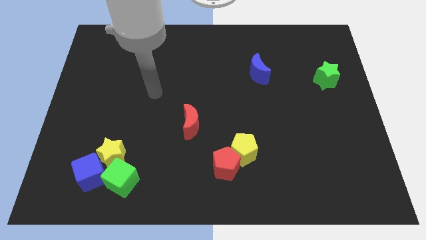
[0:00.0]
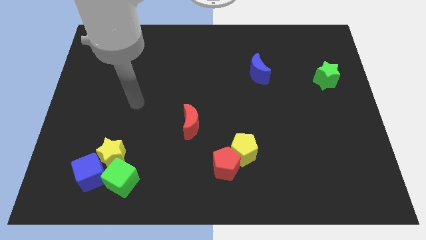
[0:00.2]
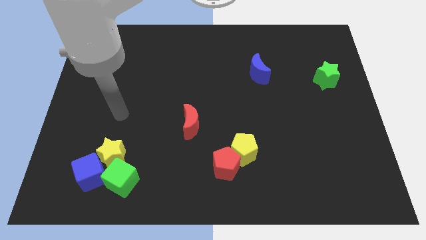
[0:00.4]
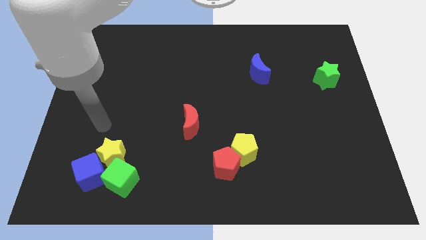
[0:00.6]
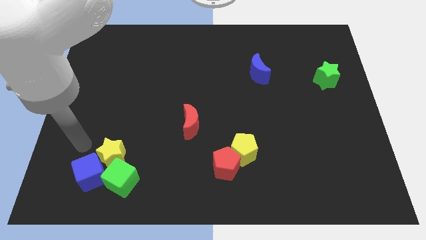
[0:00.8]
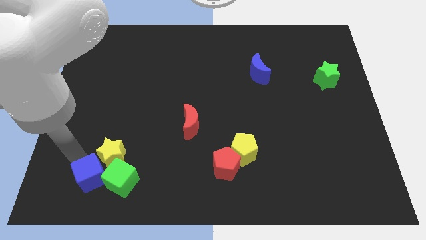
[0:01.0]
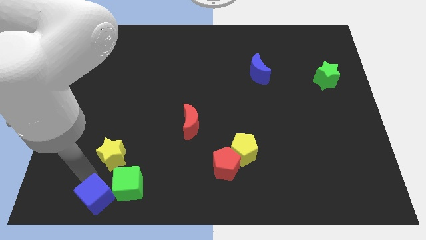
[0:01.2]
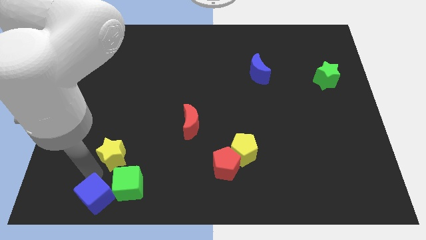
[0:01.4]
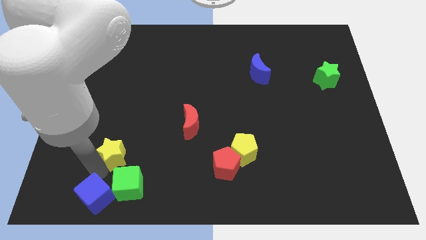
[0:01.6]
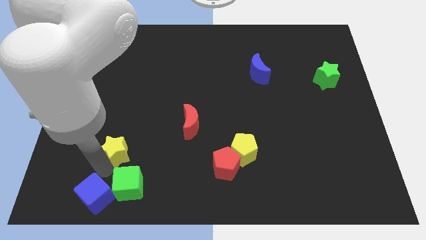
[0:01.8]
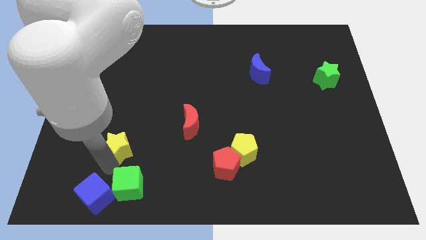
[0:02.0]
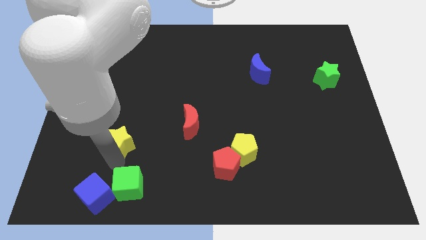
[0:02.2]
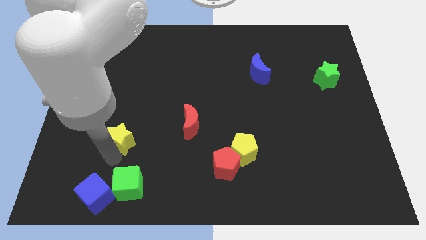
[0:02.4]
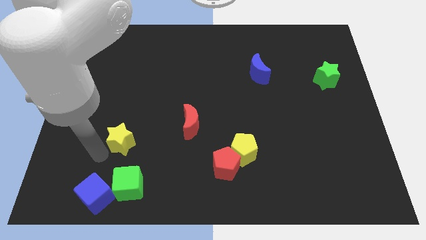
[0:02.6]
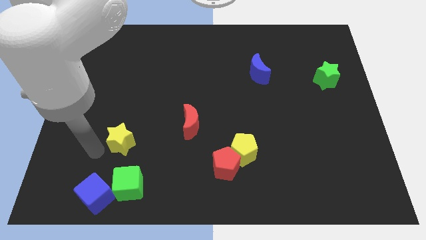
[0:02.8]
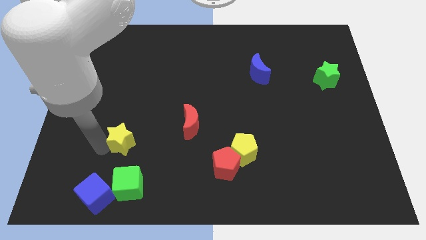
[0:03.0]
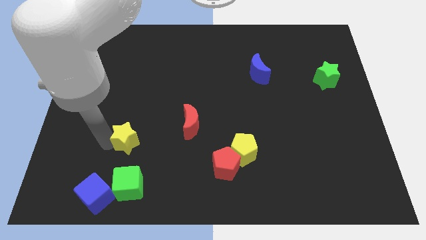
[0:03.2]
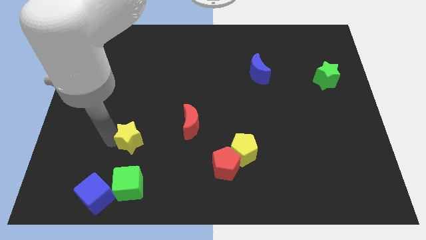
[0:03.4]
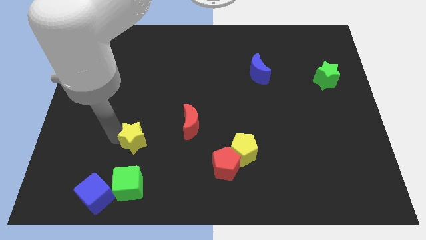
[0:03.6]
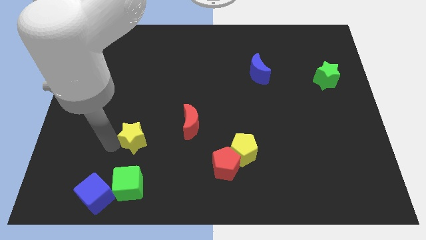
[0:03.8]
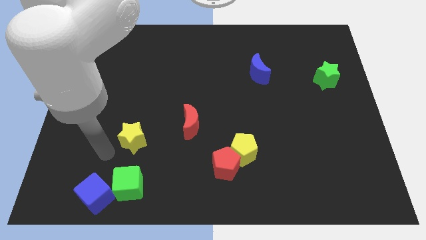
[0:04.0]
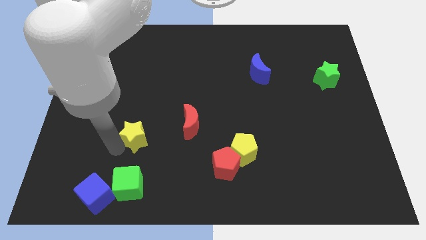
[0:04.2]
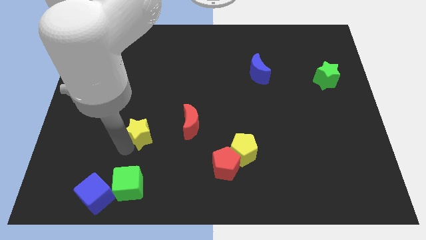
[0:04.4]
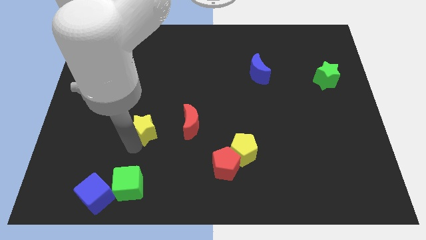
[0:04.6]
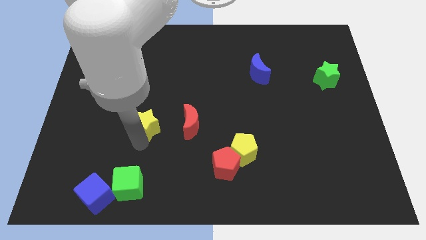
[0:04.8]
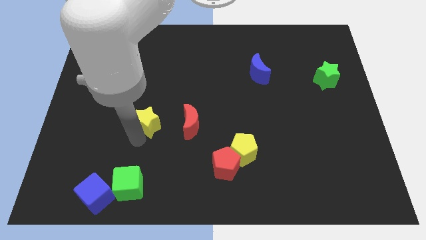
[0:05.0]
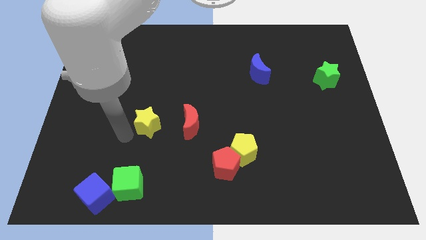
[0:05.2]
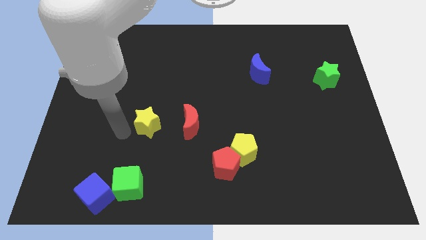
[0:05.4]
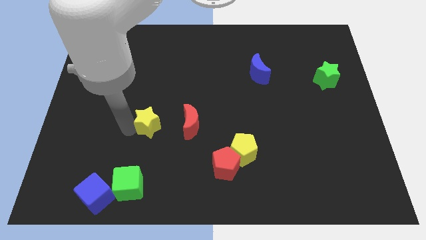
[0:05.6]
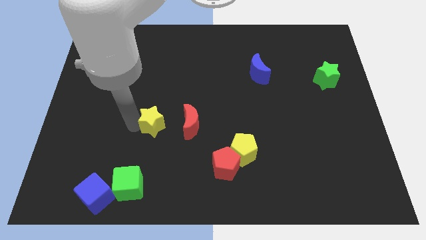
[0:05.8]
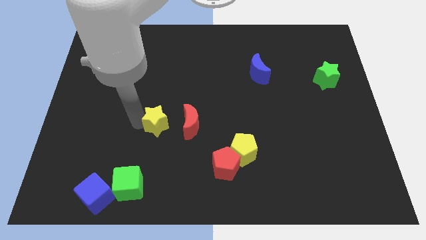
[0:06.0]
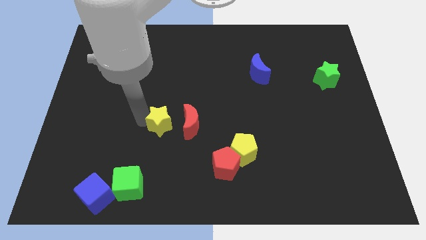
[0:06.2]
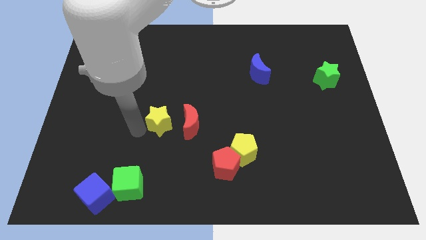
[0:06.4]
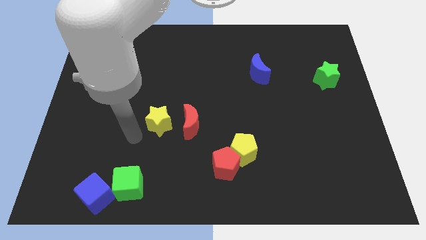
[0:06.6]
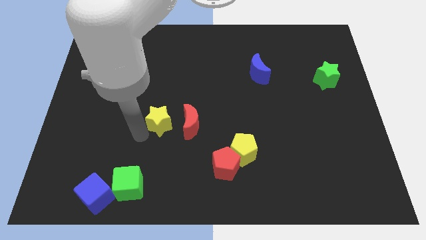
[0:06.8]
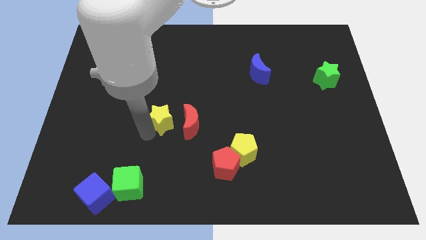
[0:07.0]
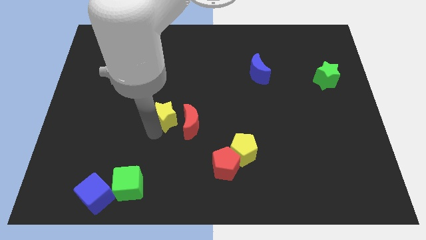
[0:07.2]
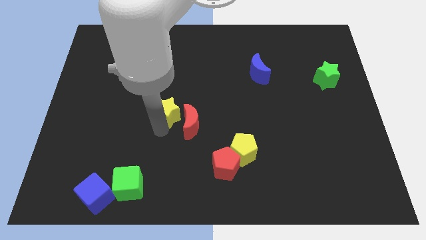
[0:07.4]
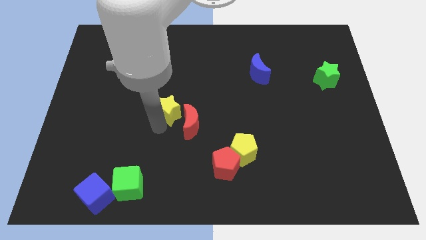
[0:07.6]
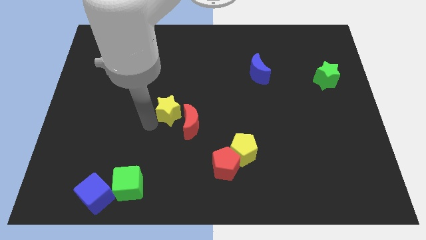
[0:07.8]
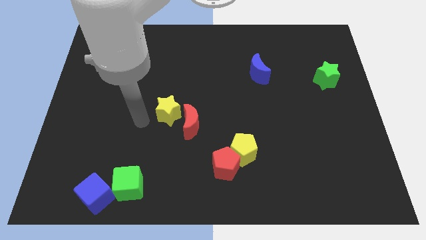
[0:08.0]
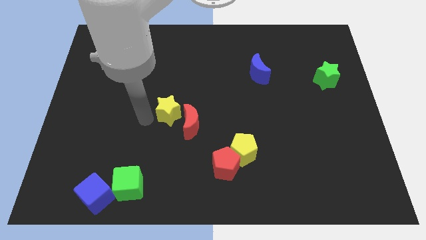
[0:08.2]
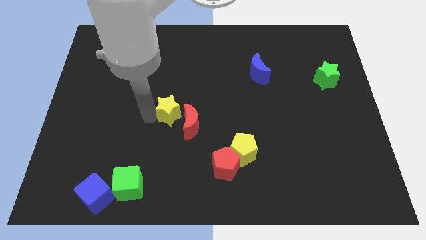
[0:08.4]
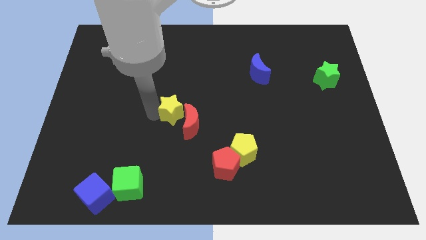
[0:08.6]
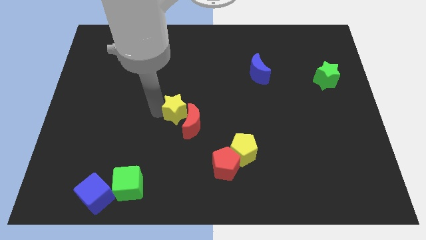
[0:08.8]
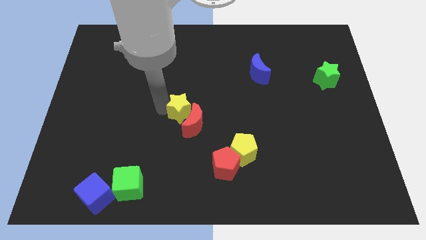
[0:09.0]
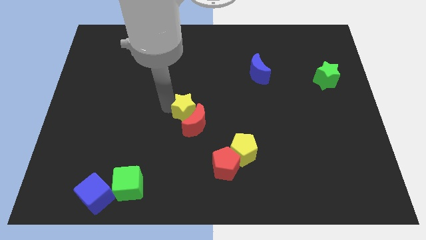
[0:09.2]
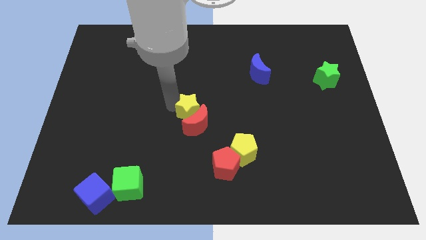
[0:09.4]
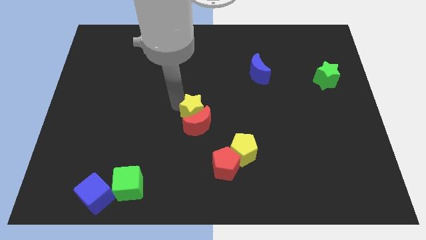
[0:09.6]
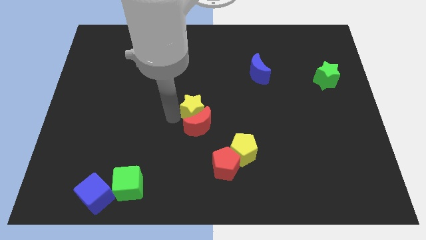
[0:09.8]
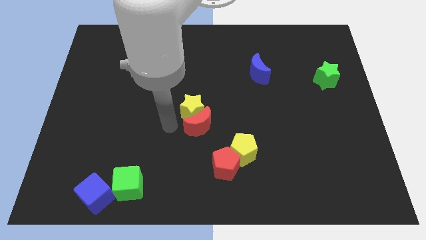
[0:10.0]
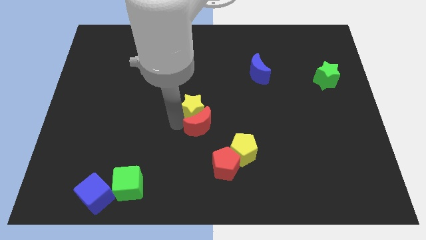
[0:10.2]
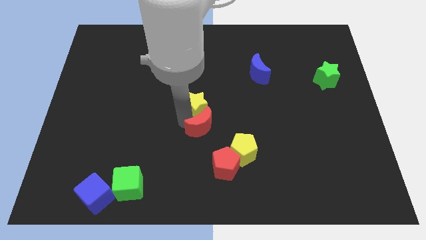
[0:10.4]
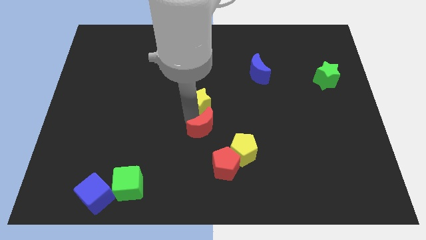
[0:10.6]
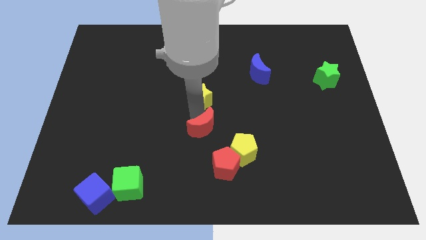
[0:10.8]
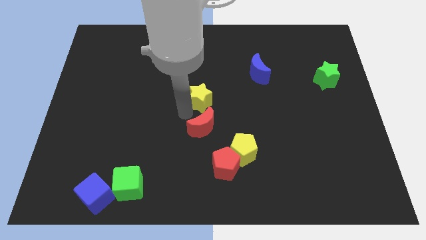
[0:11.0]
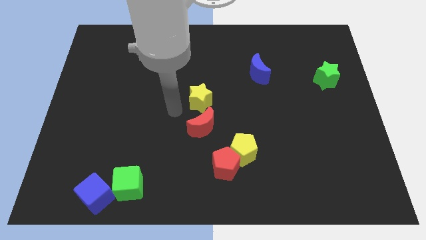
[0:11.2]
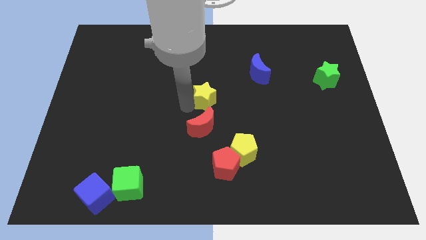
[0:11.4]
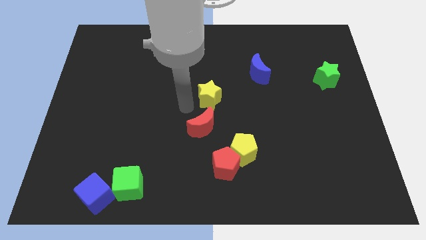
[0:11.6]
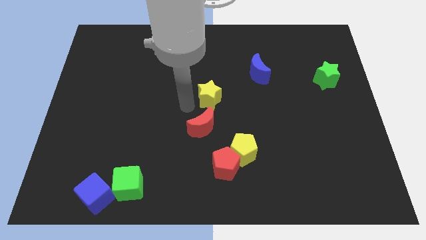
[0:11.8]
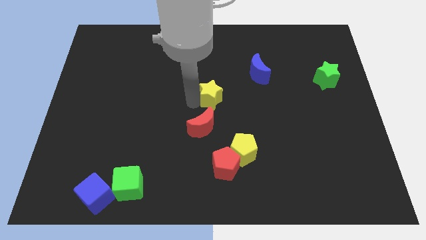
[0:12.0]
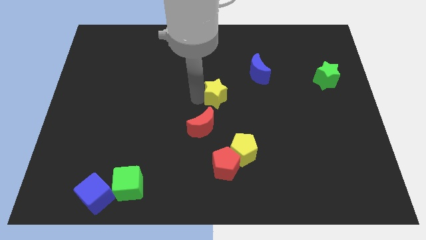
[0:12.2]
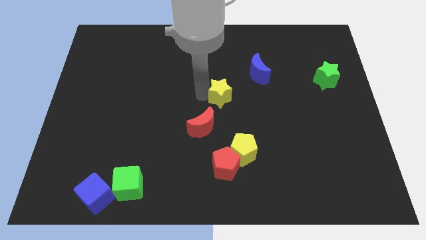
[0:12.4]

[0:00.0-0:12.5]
slide the yellow star to the bottom left side of the blue moon

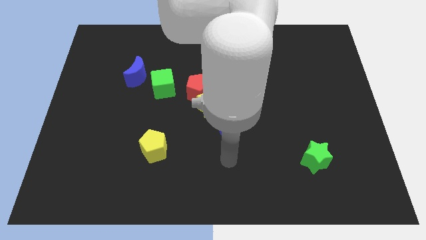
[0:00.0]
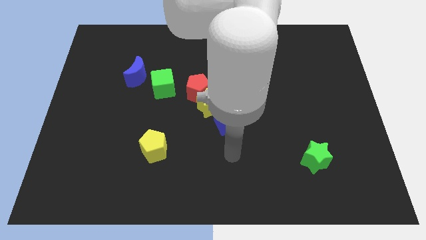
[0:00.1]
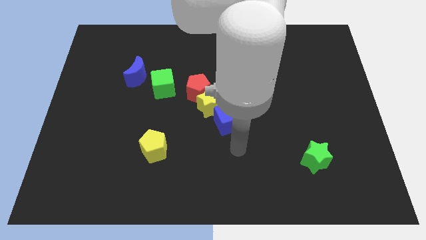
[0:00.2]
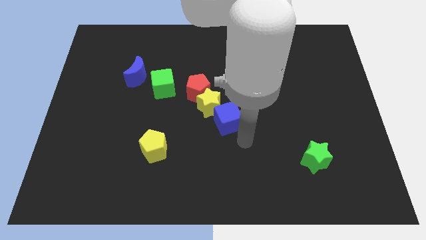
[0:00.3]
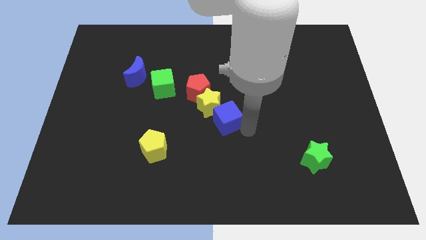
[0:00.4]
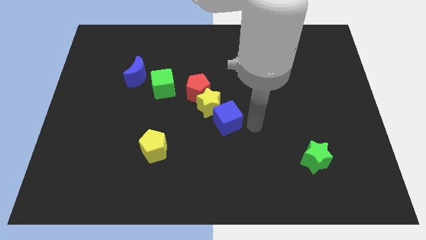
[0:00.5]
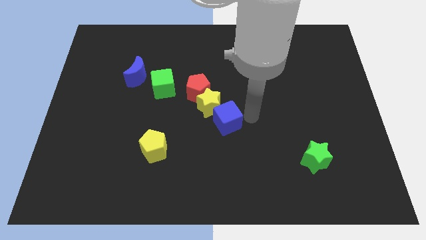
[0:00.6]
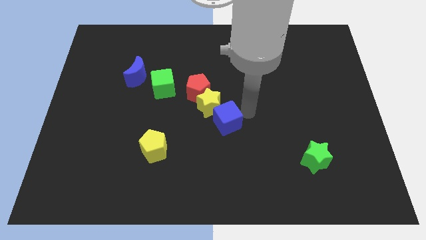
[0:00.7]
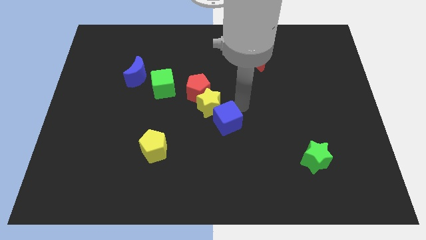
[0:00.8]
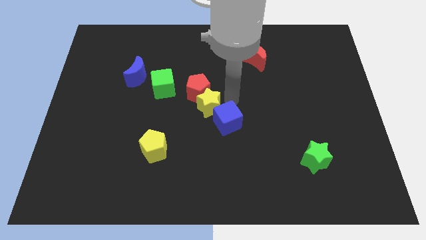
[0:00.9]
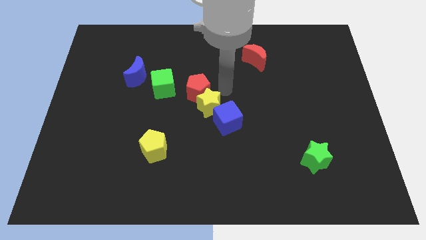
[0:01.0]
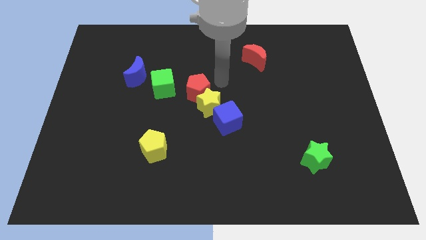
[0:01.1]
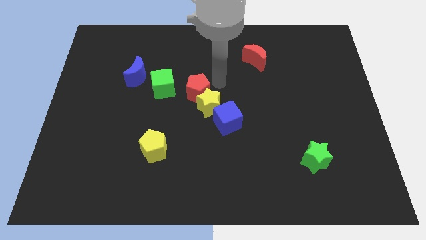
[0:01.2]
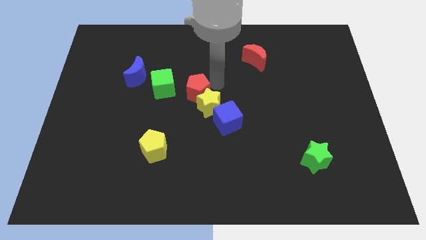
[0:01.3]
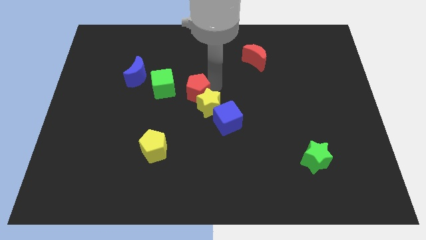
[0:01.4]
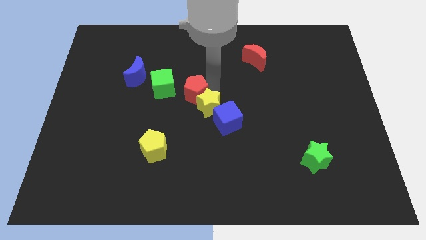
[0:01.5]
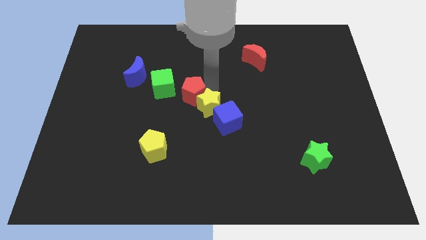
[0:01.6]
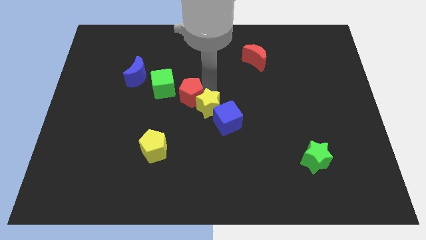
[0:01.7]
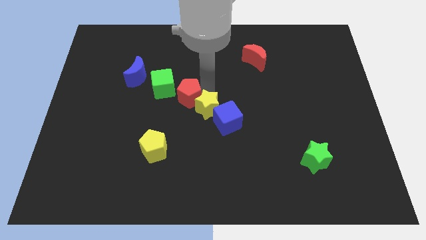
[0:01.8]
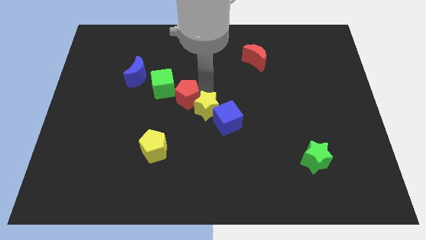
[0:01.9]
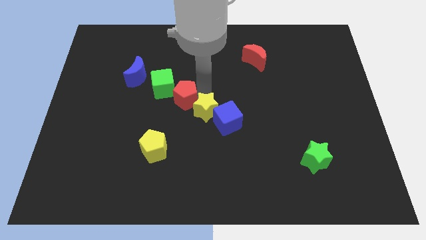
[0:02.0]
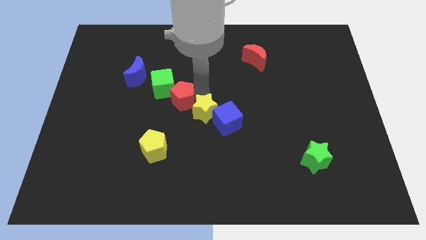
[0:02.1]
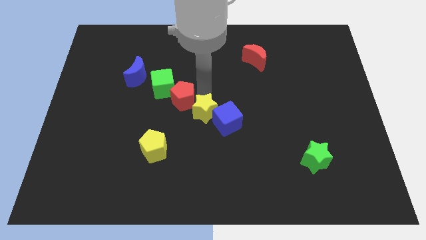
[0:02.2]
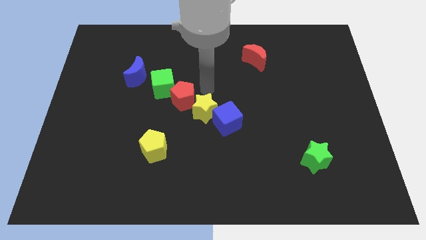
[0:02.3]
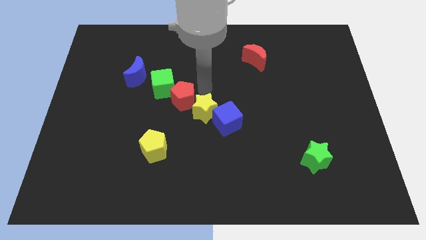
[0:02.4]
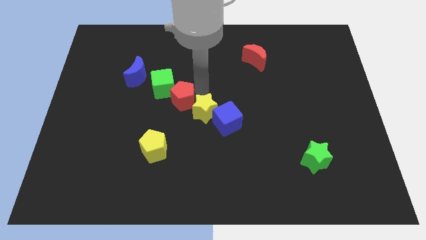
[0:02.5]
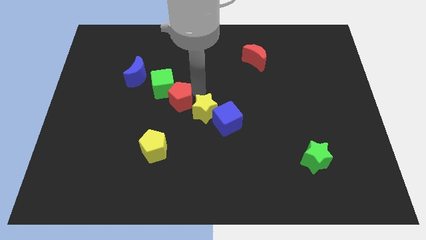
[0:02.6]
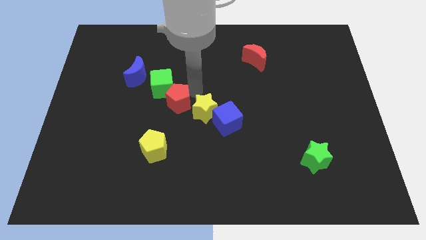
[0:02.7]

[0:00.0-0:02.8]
move the red pentagon above the yellow pentagon
